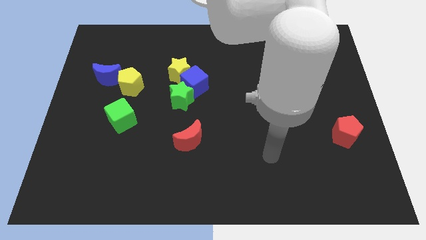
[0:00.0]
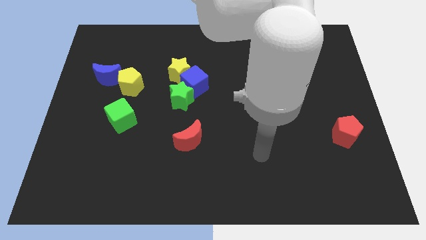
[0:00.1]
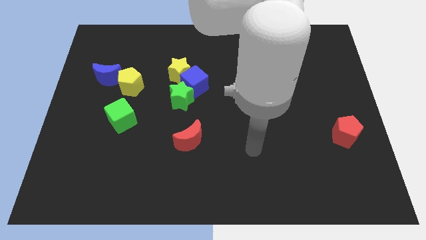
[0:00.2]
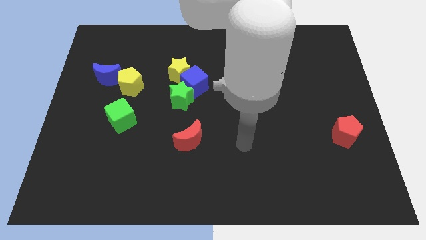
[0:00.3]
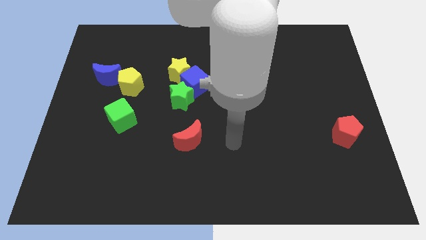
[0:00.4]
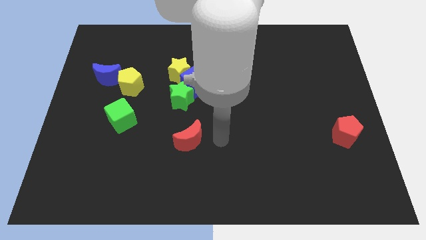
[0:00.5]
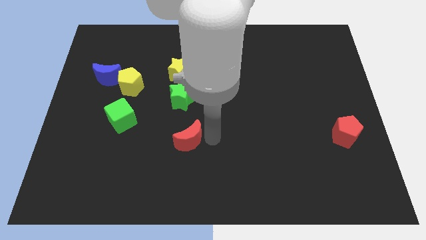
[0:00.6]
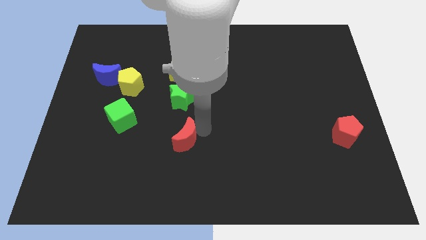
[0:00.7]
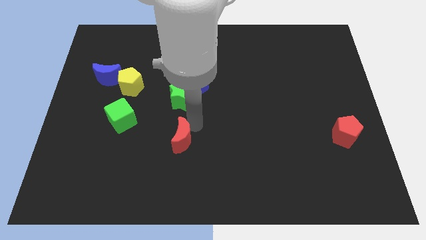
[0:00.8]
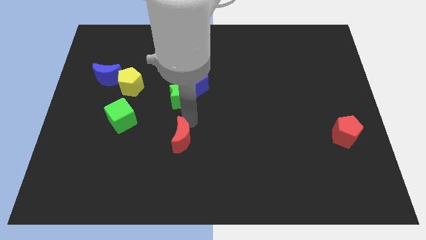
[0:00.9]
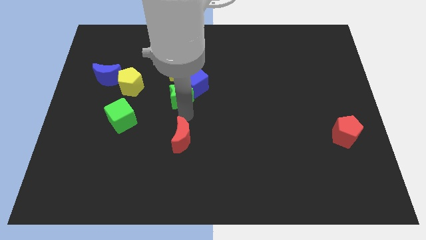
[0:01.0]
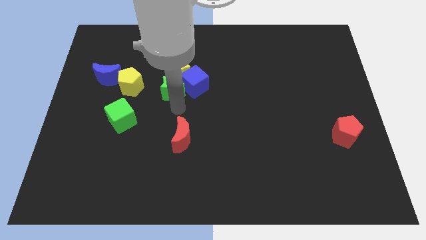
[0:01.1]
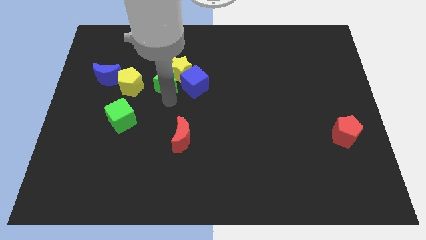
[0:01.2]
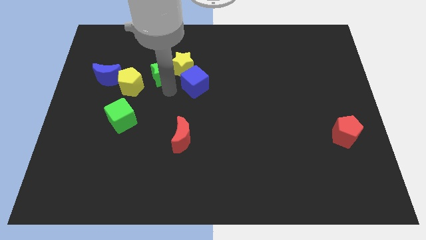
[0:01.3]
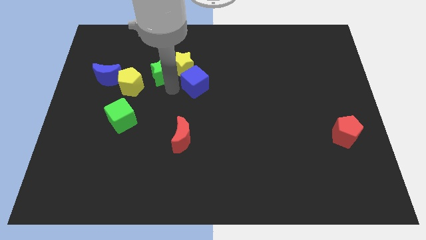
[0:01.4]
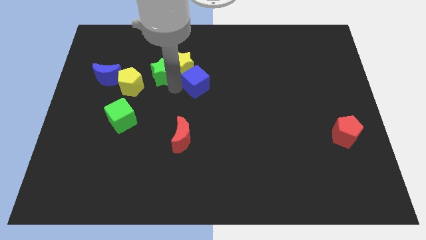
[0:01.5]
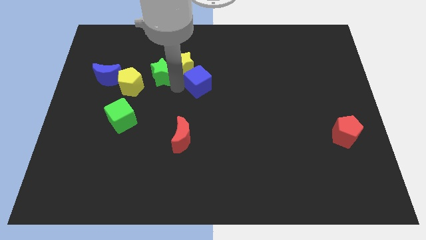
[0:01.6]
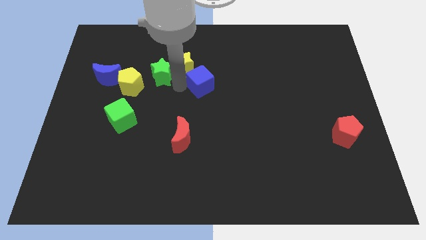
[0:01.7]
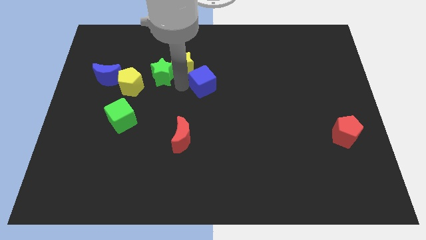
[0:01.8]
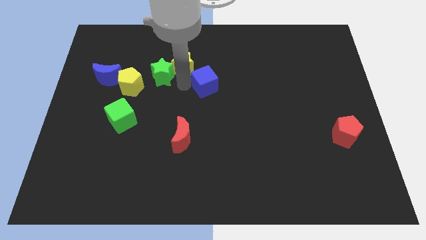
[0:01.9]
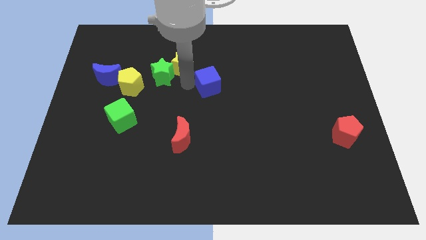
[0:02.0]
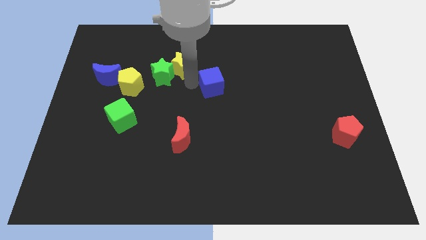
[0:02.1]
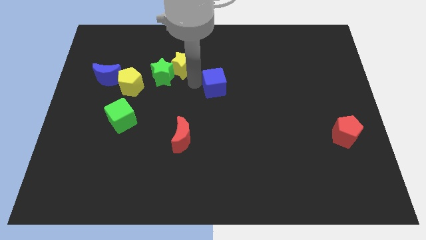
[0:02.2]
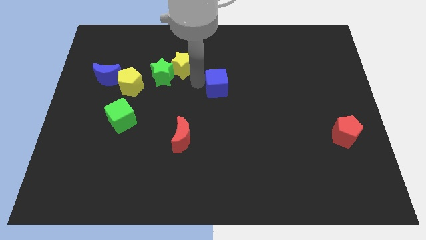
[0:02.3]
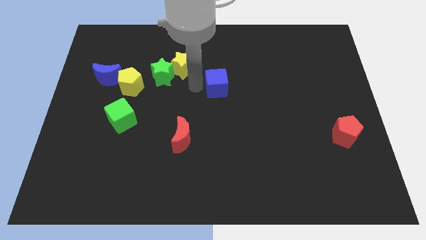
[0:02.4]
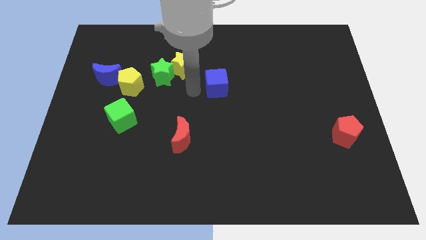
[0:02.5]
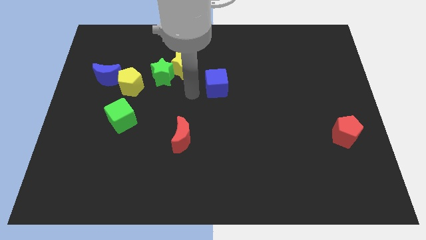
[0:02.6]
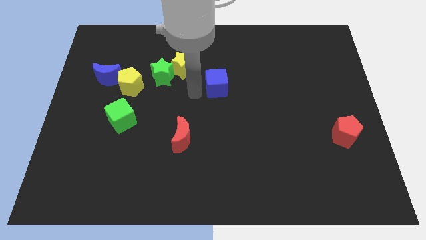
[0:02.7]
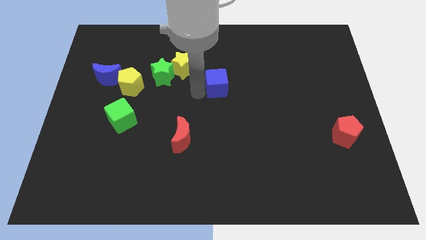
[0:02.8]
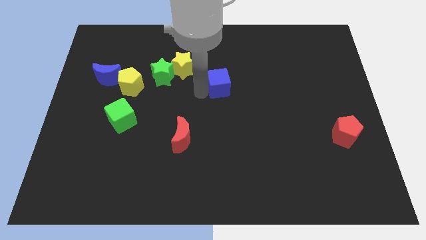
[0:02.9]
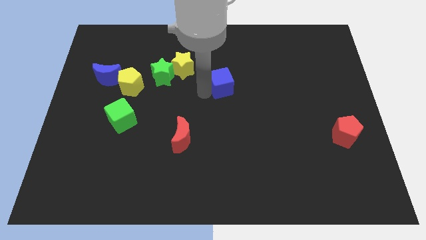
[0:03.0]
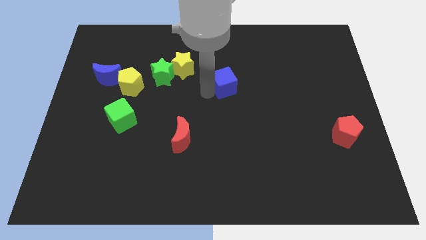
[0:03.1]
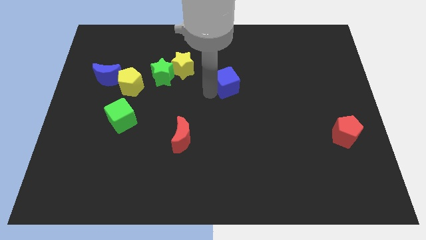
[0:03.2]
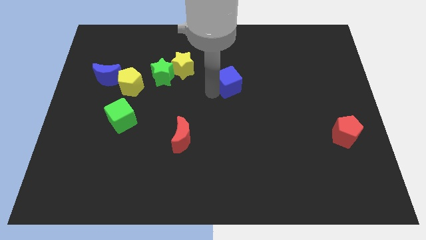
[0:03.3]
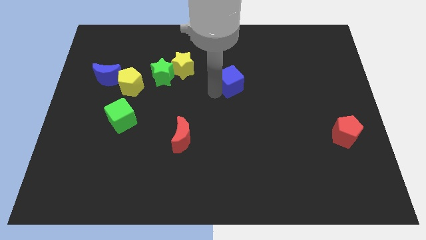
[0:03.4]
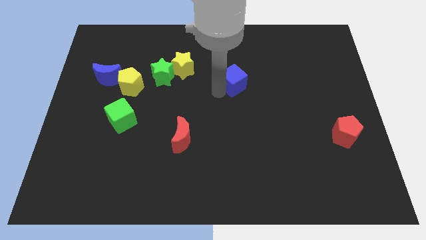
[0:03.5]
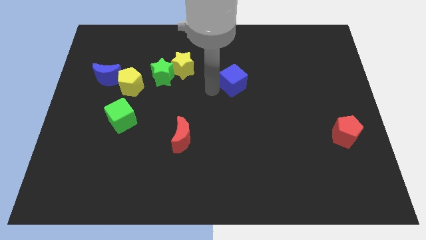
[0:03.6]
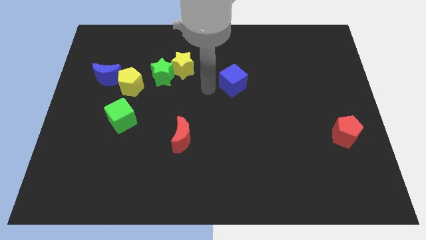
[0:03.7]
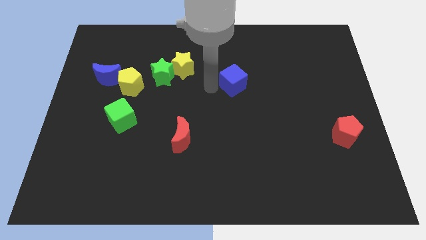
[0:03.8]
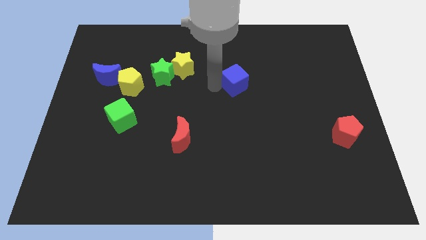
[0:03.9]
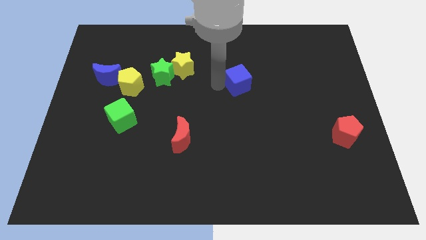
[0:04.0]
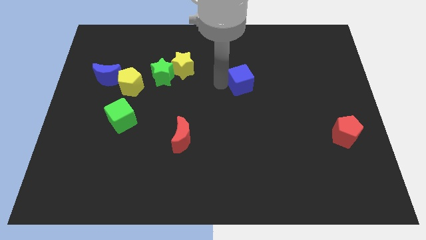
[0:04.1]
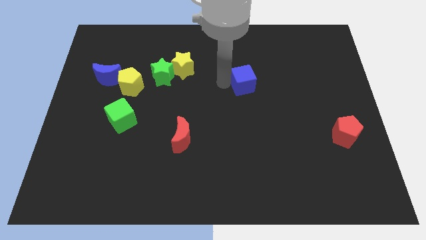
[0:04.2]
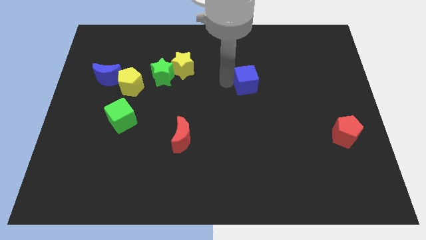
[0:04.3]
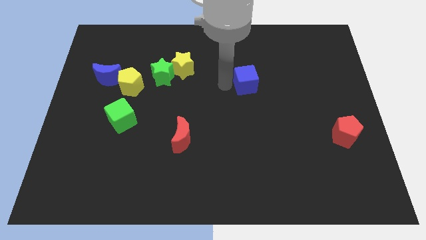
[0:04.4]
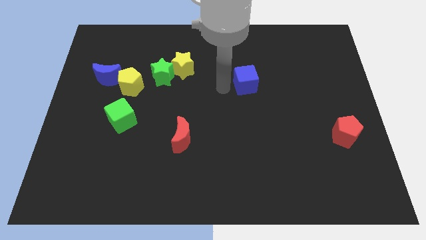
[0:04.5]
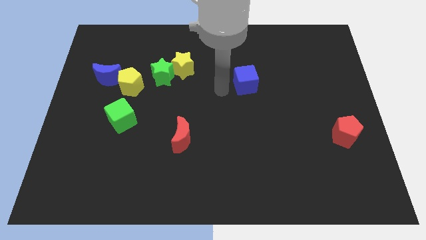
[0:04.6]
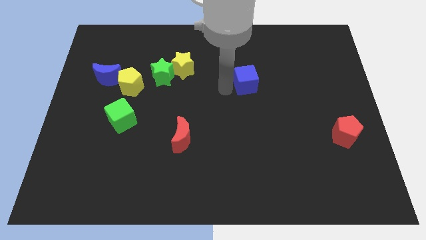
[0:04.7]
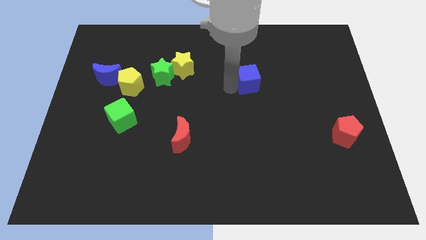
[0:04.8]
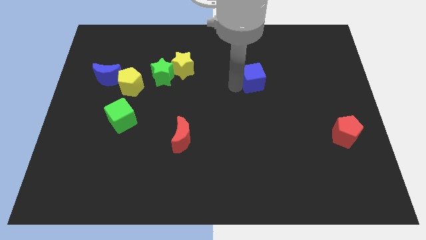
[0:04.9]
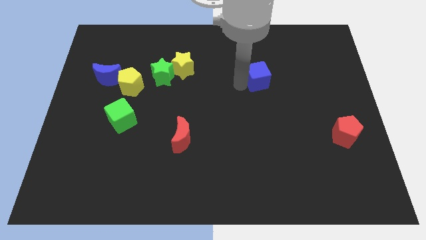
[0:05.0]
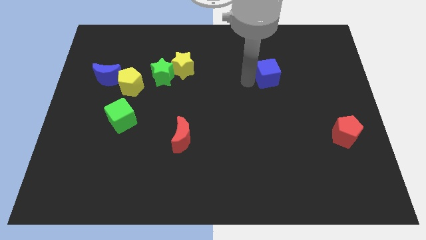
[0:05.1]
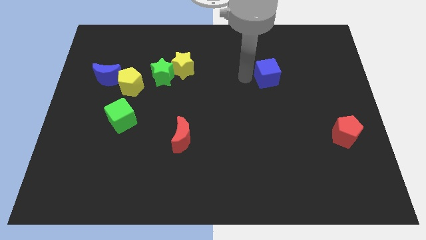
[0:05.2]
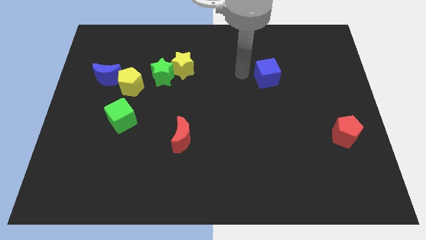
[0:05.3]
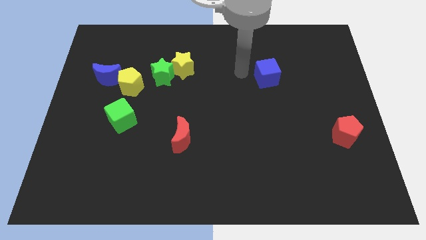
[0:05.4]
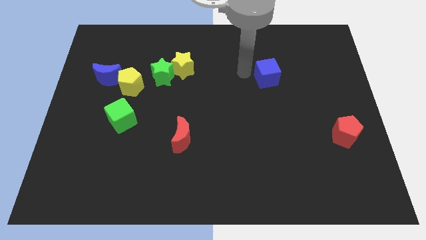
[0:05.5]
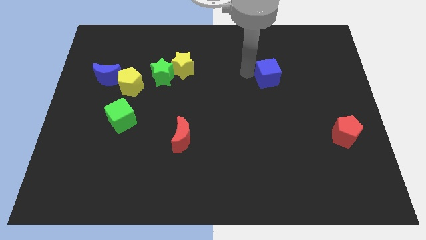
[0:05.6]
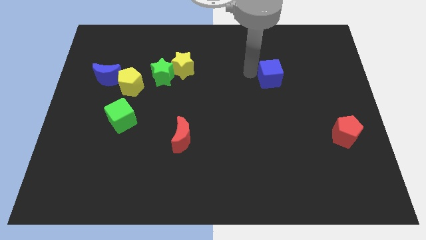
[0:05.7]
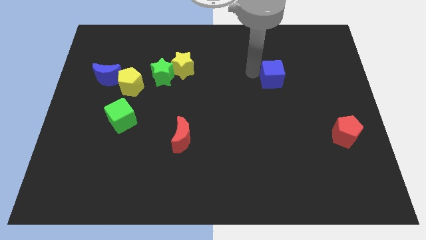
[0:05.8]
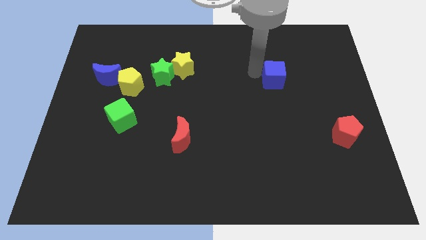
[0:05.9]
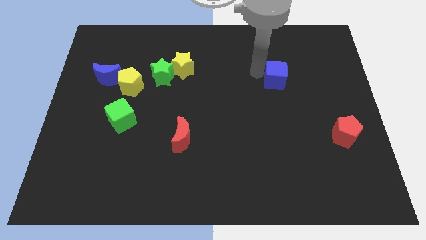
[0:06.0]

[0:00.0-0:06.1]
move the blue cube to the right

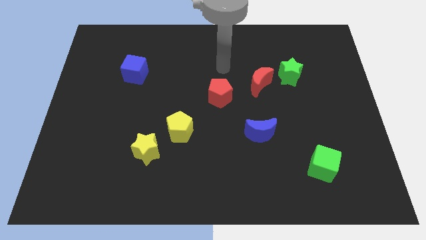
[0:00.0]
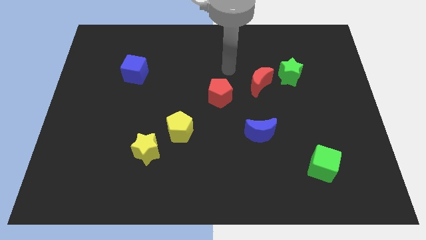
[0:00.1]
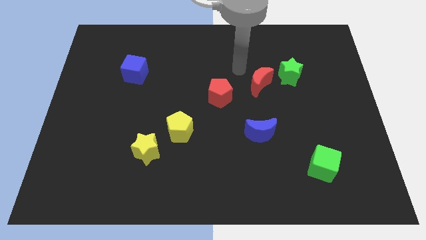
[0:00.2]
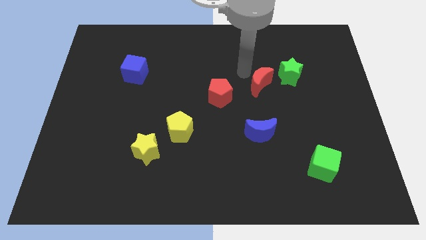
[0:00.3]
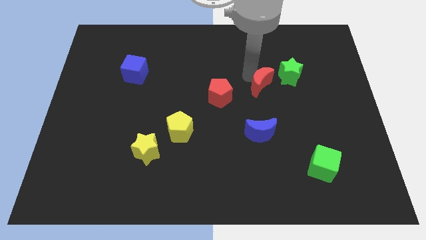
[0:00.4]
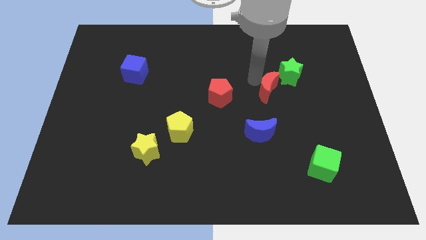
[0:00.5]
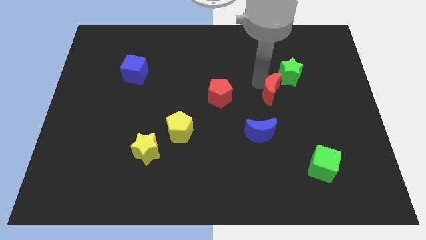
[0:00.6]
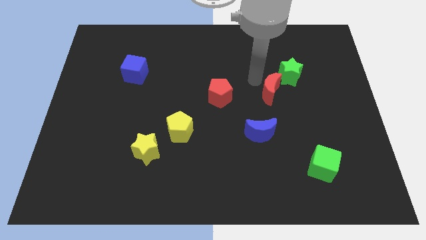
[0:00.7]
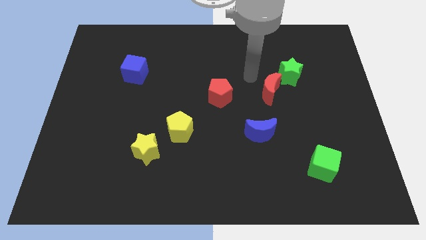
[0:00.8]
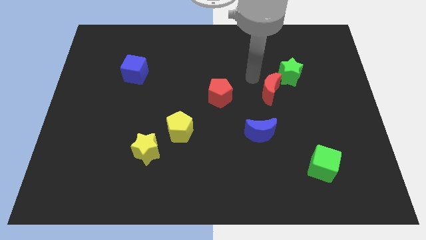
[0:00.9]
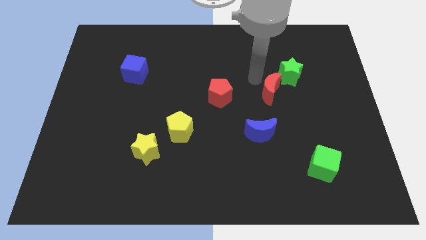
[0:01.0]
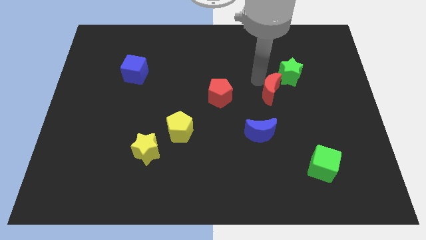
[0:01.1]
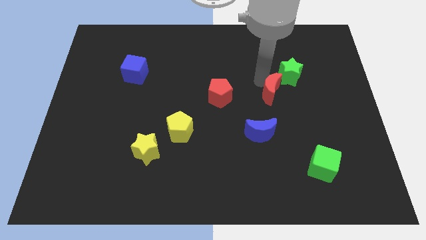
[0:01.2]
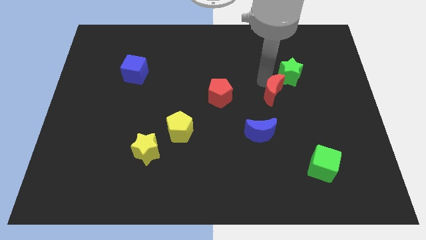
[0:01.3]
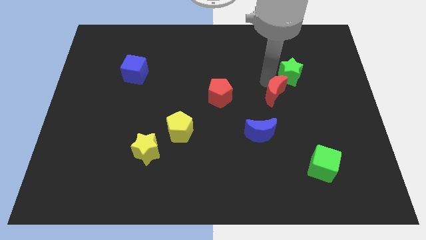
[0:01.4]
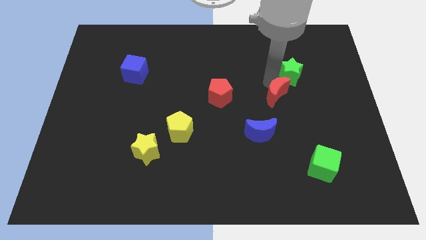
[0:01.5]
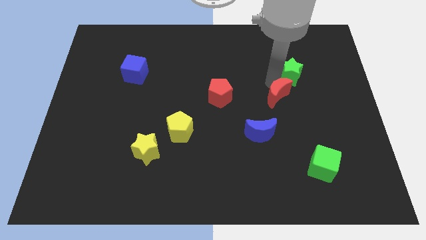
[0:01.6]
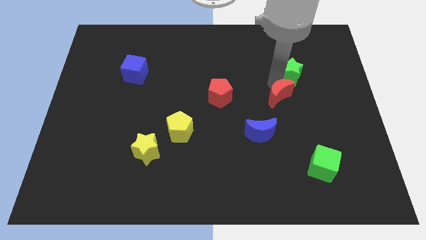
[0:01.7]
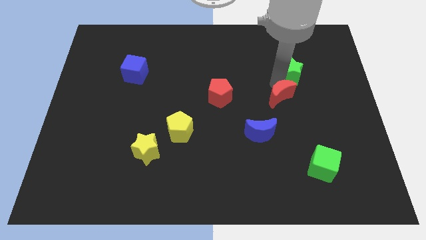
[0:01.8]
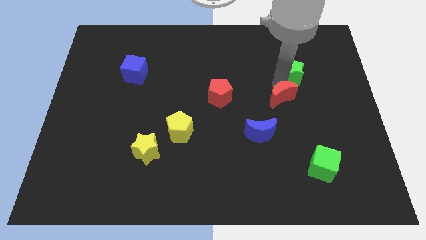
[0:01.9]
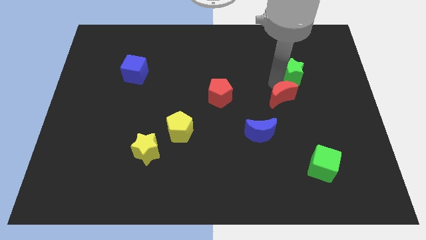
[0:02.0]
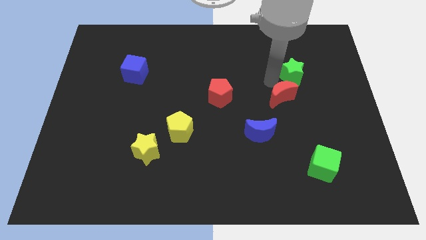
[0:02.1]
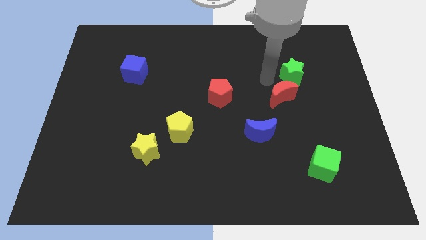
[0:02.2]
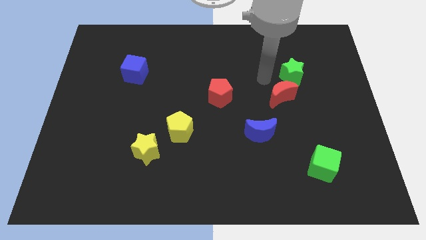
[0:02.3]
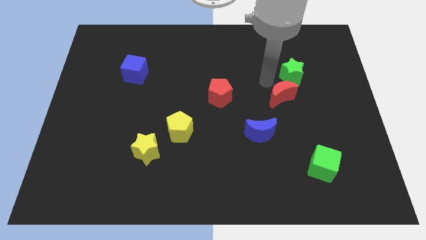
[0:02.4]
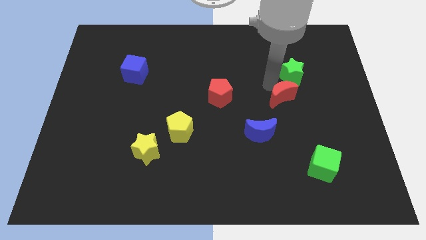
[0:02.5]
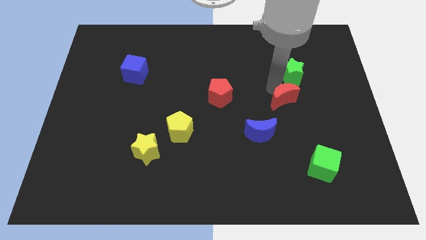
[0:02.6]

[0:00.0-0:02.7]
slightly push the red moon down and then right
